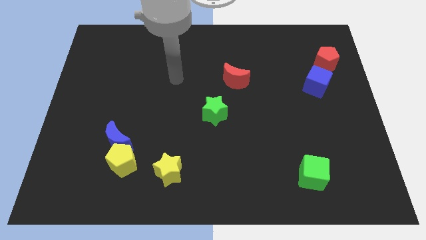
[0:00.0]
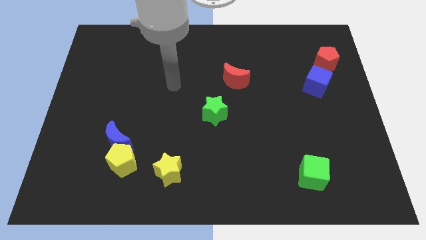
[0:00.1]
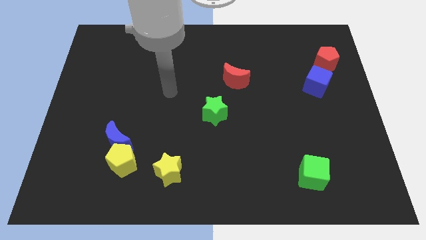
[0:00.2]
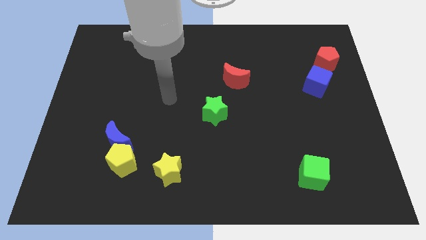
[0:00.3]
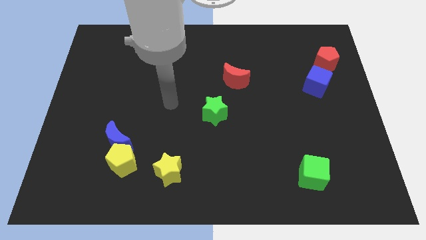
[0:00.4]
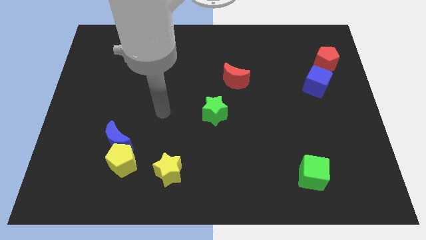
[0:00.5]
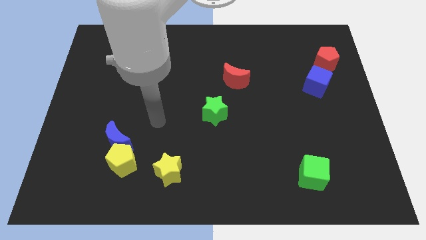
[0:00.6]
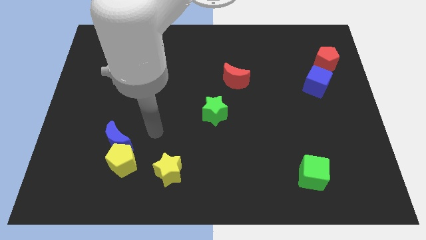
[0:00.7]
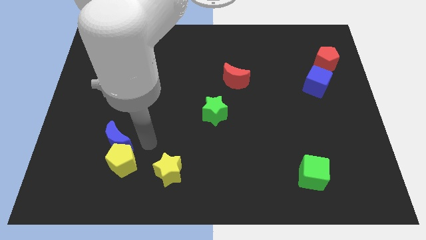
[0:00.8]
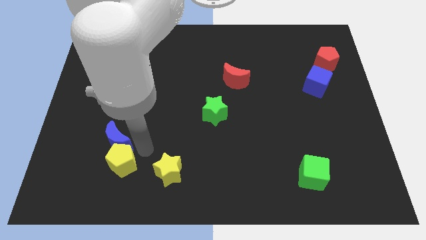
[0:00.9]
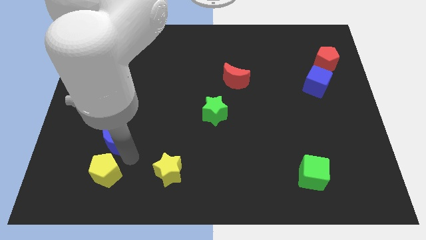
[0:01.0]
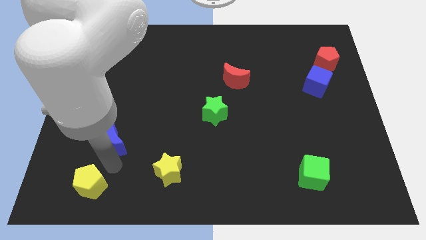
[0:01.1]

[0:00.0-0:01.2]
separate the blue moon from the yellow pentagon

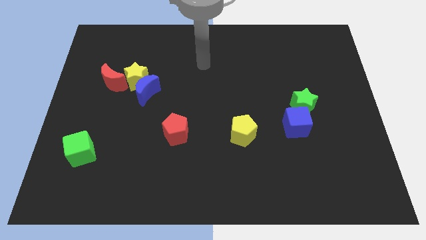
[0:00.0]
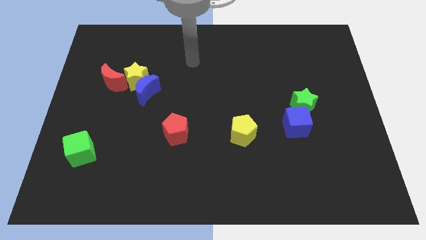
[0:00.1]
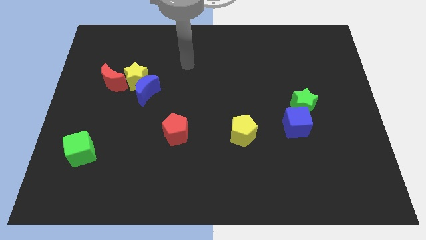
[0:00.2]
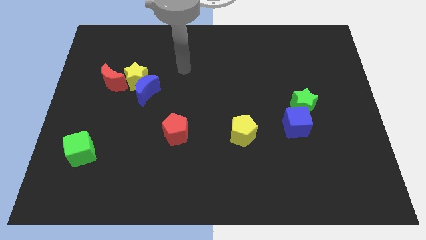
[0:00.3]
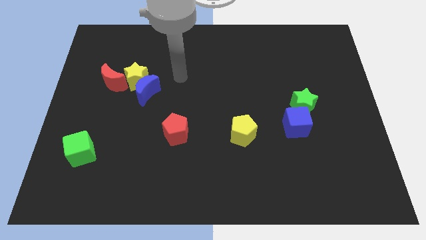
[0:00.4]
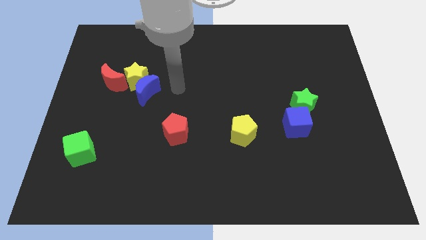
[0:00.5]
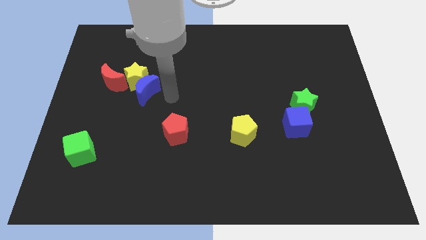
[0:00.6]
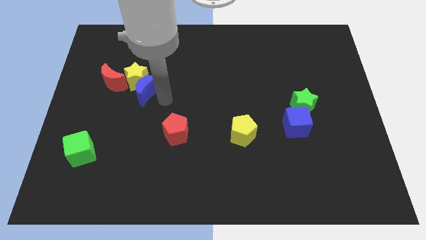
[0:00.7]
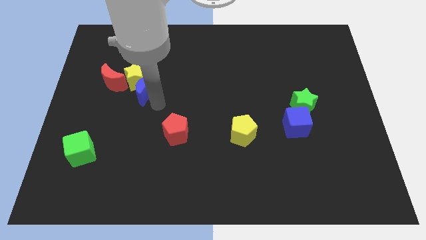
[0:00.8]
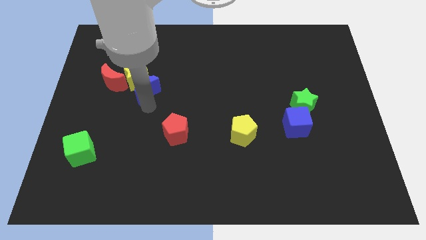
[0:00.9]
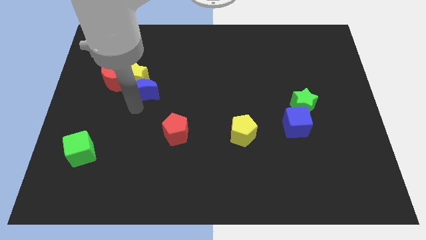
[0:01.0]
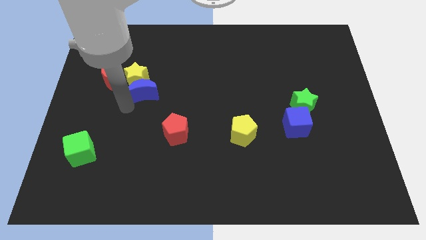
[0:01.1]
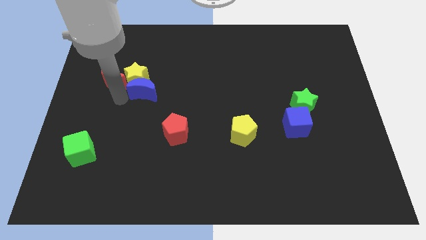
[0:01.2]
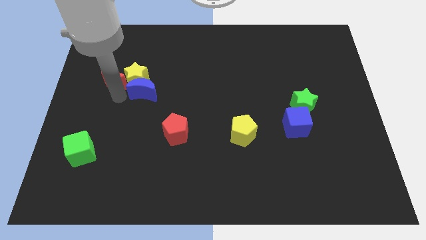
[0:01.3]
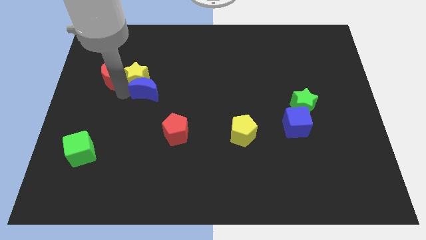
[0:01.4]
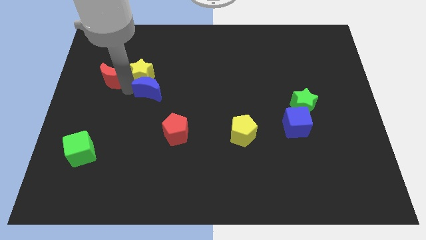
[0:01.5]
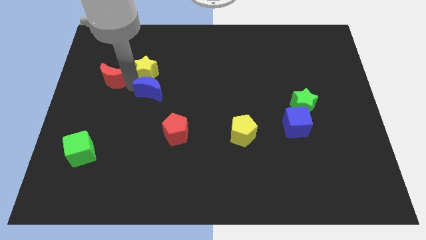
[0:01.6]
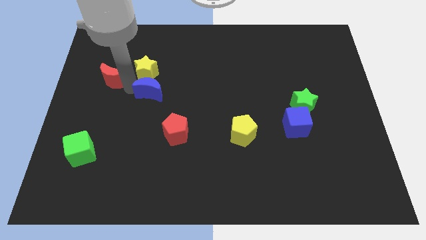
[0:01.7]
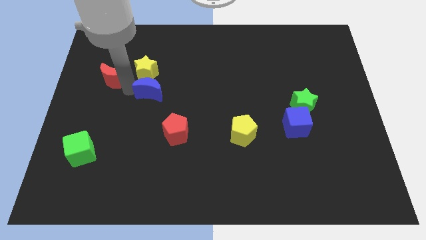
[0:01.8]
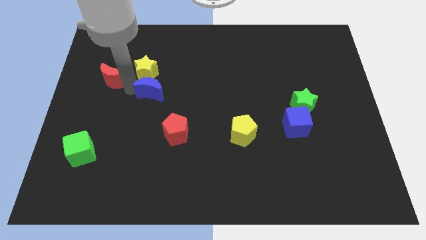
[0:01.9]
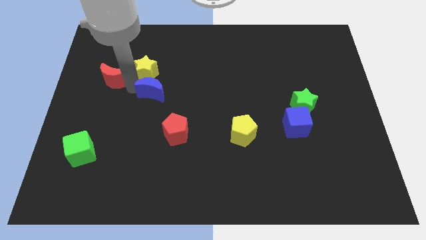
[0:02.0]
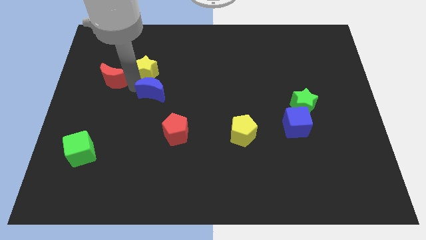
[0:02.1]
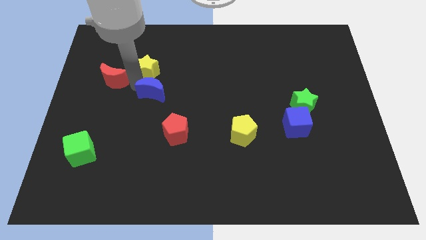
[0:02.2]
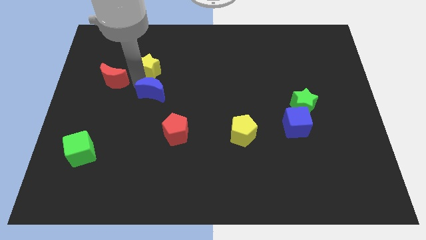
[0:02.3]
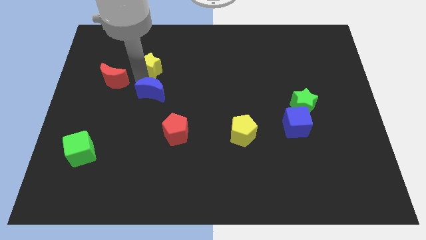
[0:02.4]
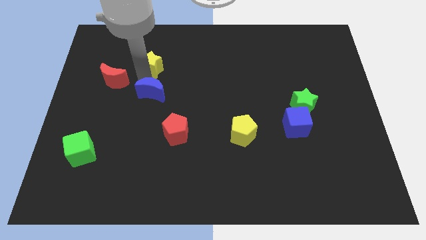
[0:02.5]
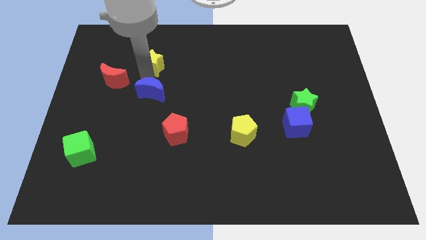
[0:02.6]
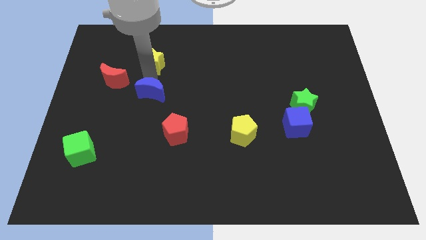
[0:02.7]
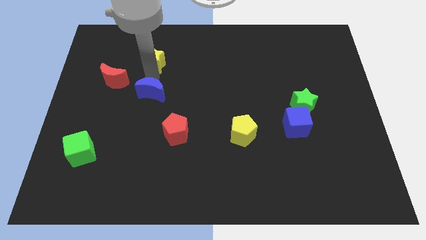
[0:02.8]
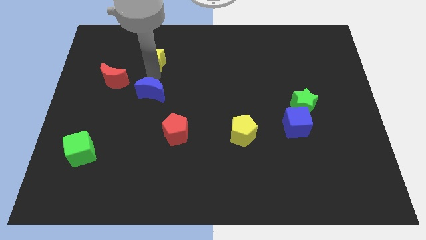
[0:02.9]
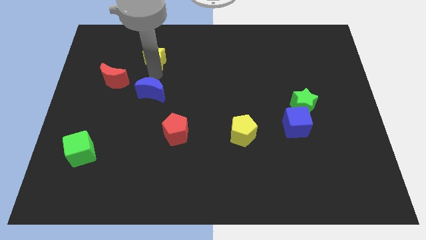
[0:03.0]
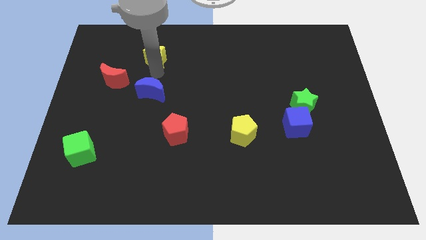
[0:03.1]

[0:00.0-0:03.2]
move the yellow star away from the blue moon and red moon

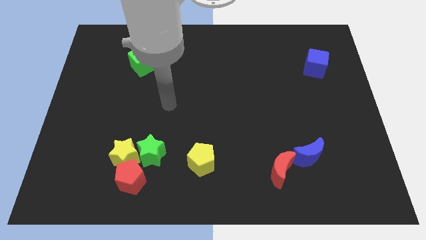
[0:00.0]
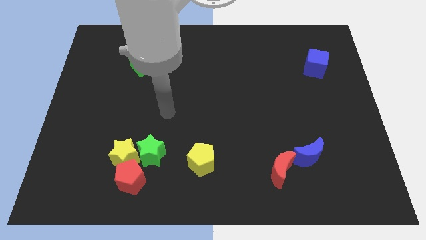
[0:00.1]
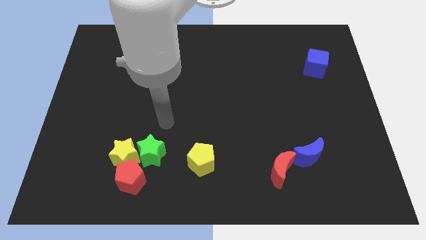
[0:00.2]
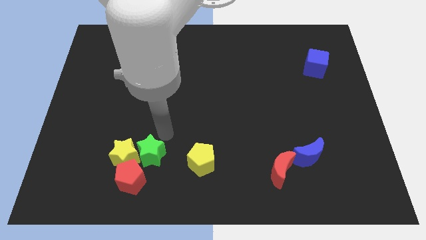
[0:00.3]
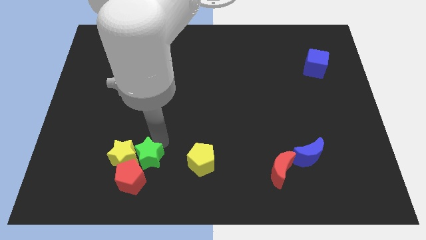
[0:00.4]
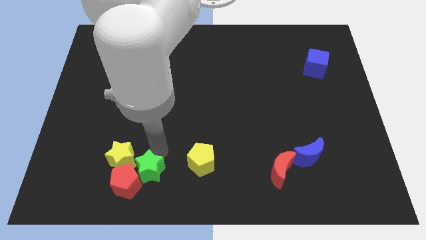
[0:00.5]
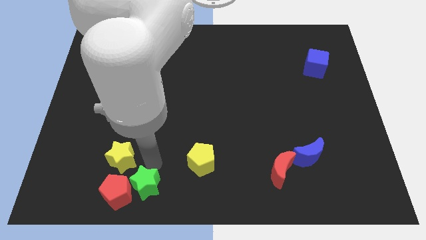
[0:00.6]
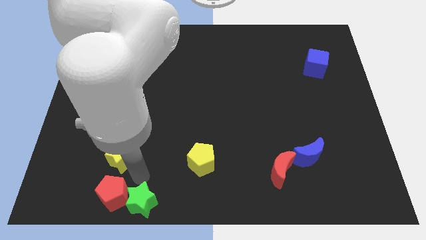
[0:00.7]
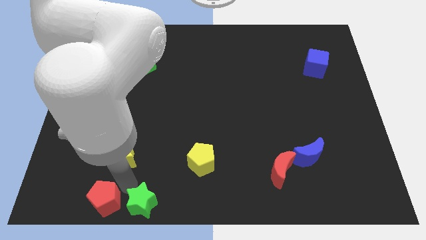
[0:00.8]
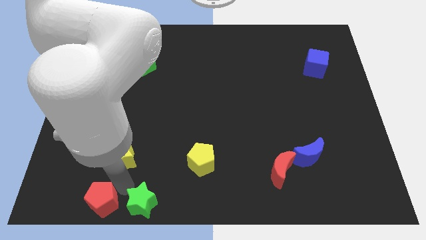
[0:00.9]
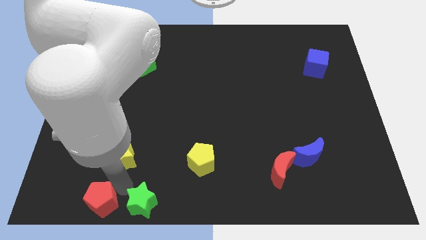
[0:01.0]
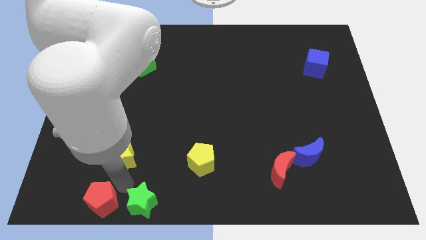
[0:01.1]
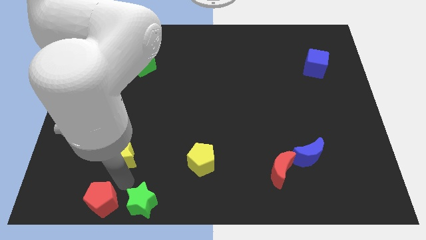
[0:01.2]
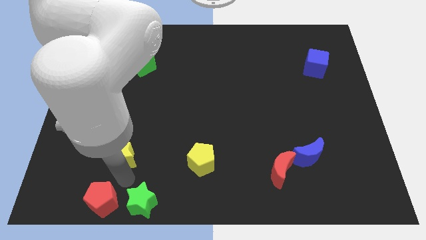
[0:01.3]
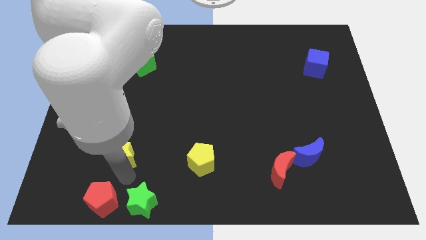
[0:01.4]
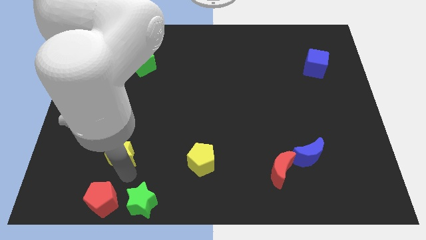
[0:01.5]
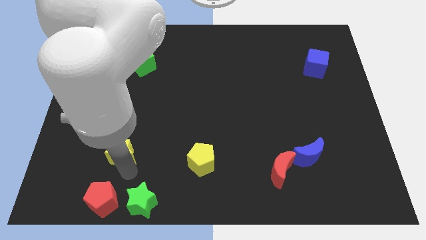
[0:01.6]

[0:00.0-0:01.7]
pull the yellow star apart from the red pentagon and green star

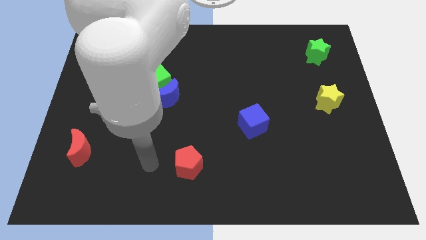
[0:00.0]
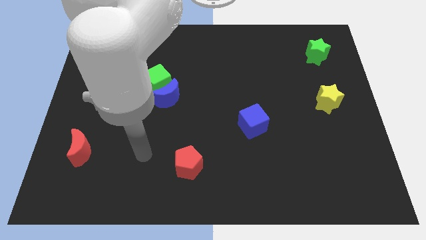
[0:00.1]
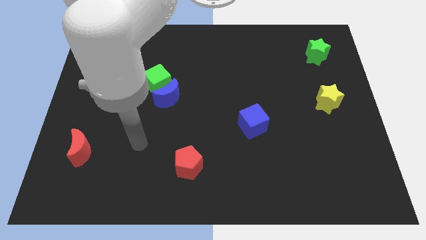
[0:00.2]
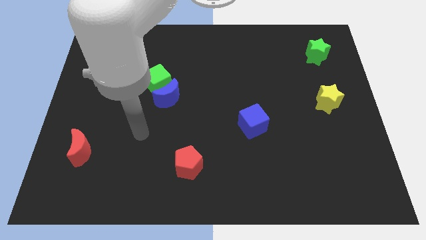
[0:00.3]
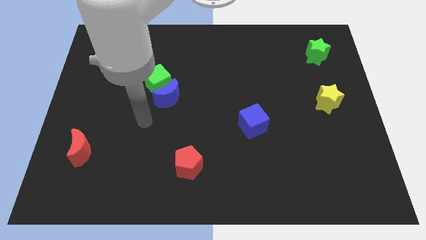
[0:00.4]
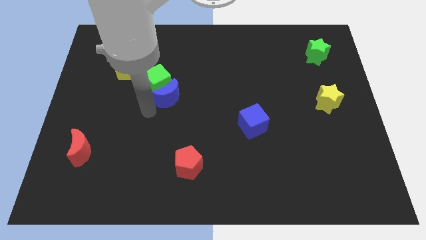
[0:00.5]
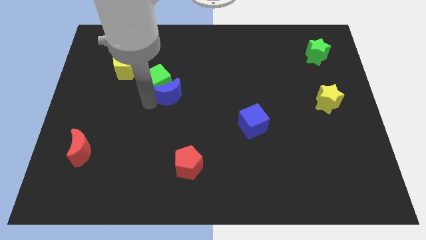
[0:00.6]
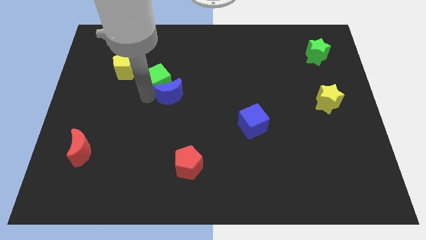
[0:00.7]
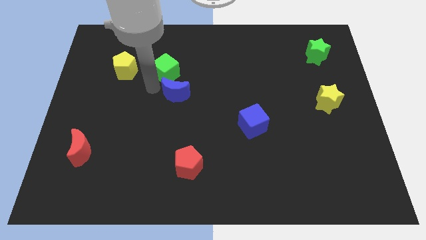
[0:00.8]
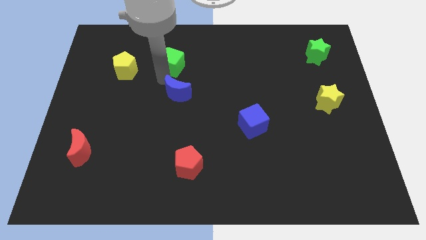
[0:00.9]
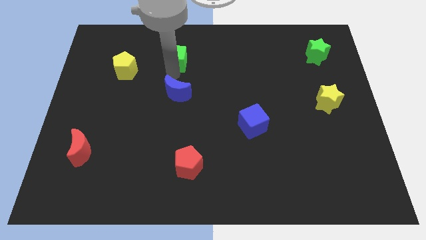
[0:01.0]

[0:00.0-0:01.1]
move the blue moon away from the green cube

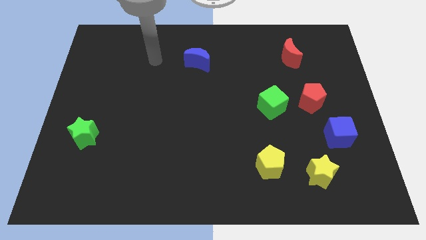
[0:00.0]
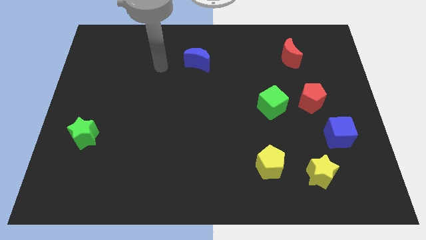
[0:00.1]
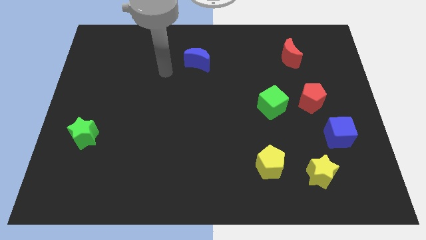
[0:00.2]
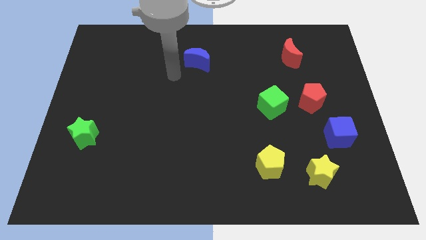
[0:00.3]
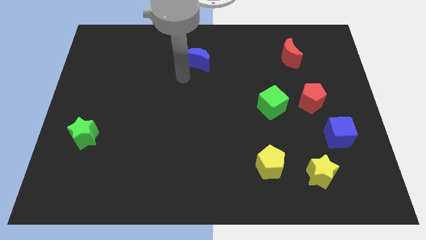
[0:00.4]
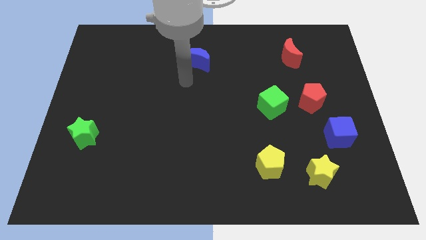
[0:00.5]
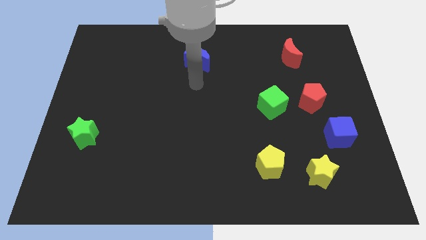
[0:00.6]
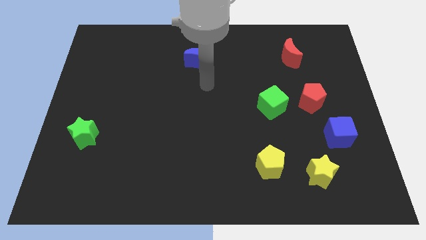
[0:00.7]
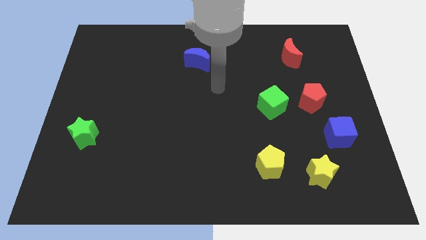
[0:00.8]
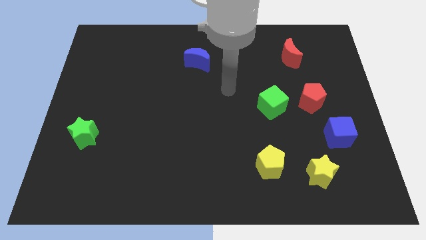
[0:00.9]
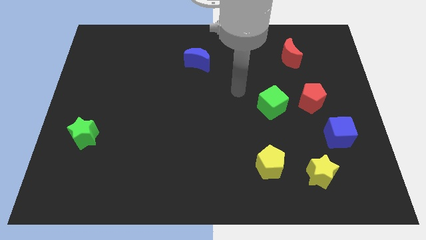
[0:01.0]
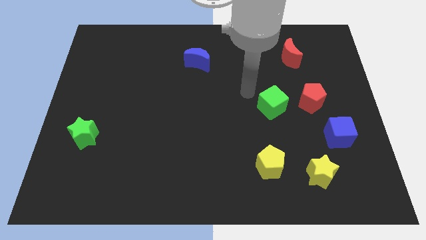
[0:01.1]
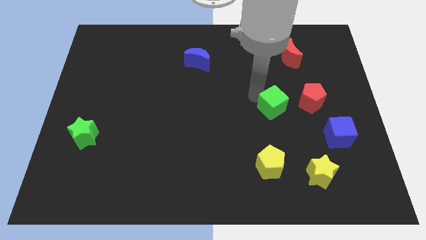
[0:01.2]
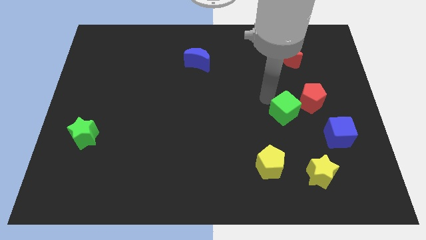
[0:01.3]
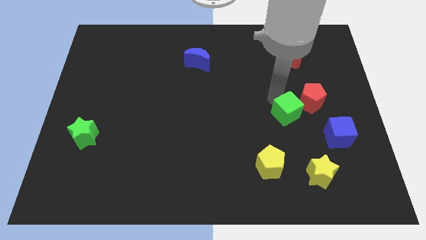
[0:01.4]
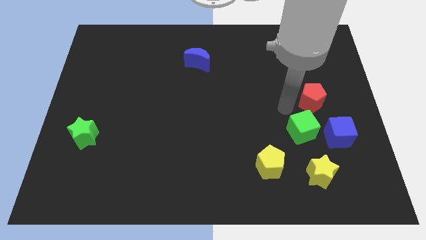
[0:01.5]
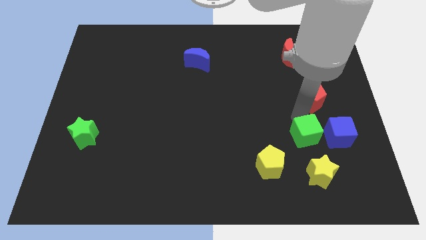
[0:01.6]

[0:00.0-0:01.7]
separate the red pentagon from the green cube

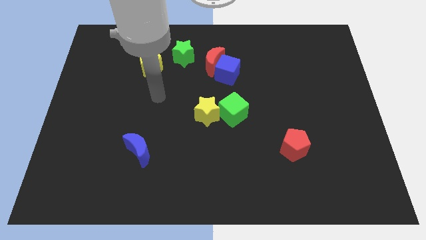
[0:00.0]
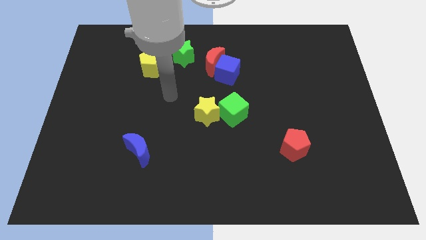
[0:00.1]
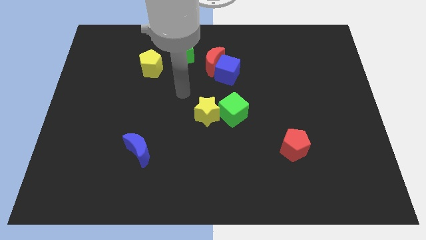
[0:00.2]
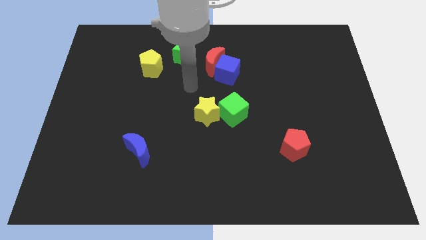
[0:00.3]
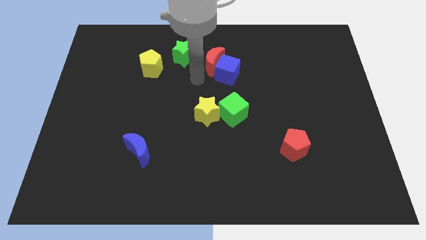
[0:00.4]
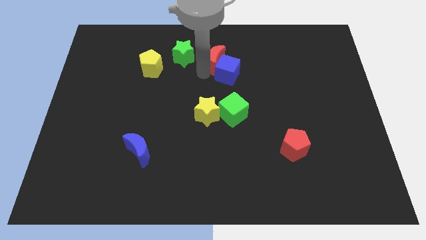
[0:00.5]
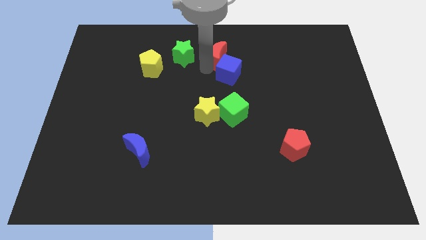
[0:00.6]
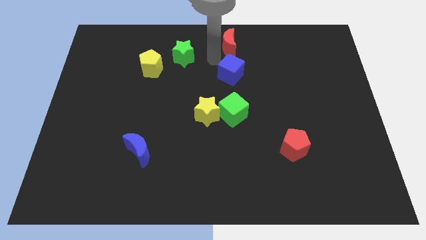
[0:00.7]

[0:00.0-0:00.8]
pull the blue cube apart from the red moon
